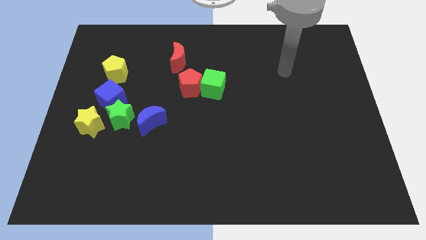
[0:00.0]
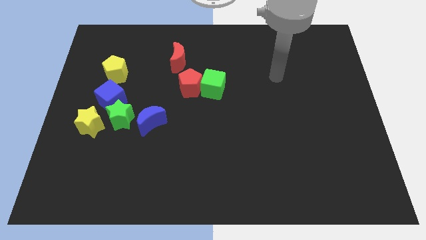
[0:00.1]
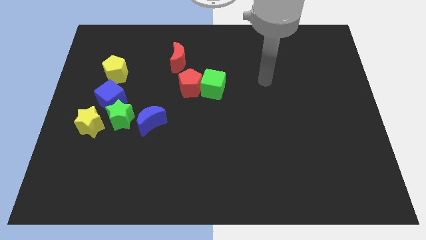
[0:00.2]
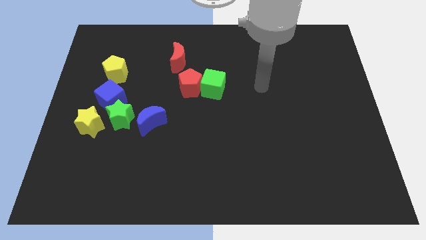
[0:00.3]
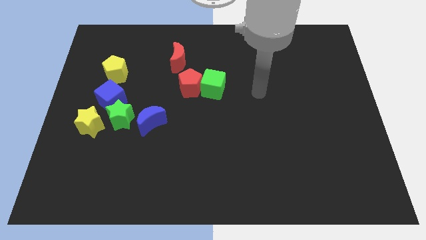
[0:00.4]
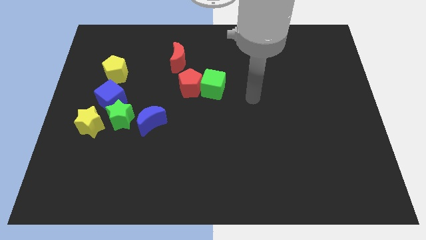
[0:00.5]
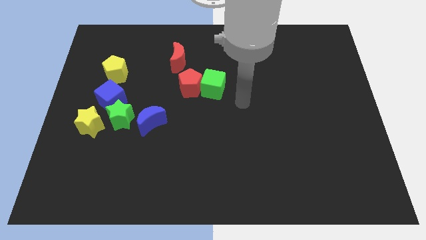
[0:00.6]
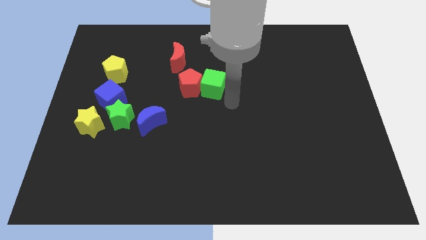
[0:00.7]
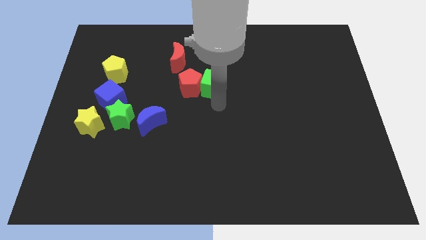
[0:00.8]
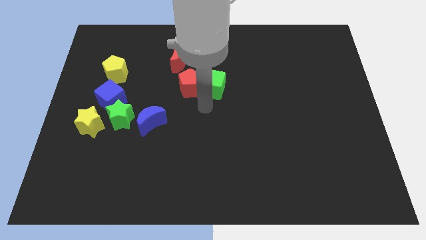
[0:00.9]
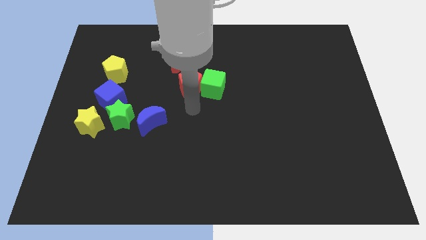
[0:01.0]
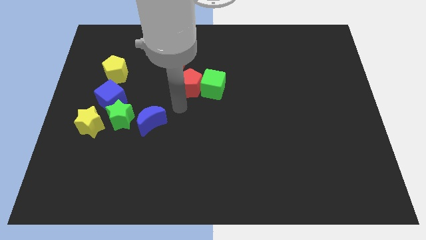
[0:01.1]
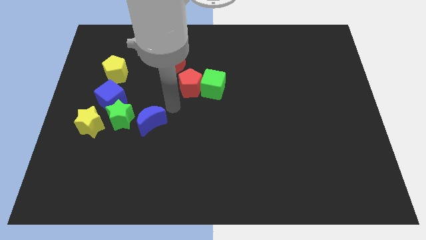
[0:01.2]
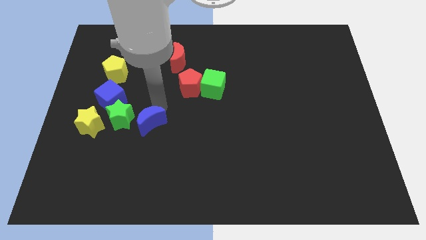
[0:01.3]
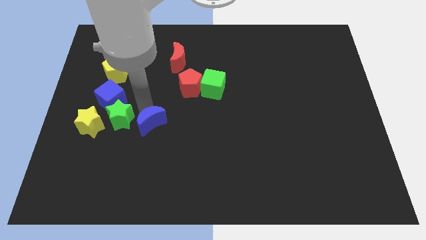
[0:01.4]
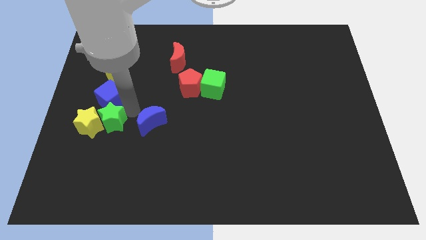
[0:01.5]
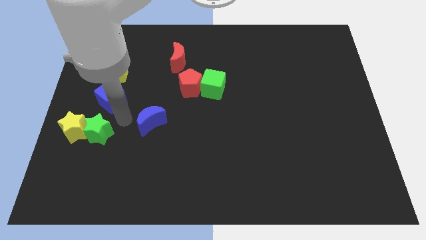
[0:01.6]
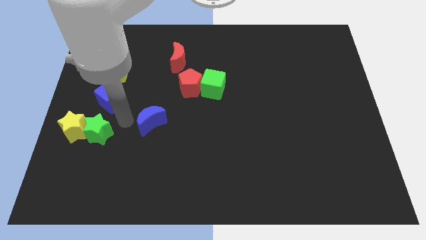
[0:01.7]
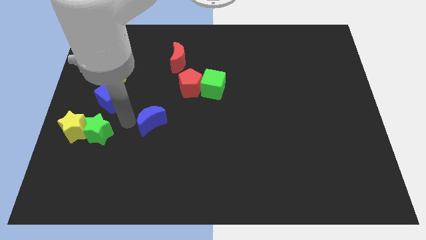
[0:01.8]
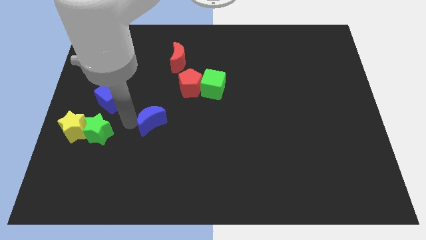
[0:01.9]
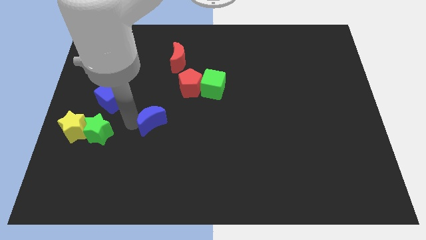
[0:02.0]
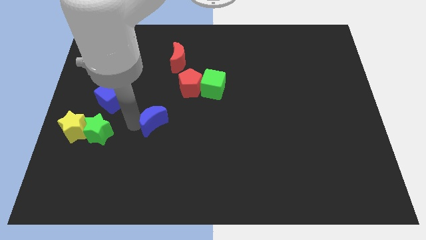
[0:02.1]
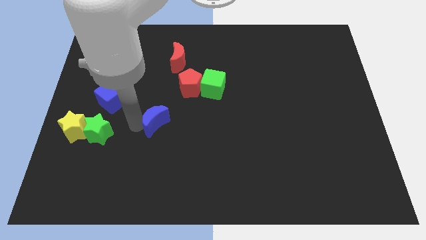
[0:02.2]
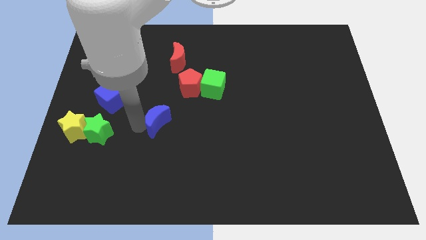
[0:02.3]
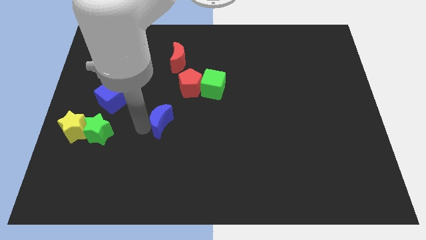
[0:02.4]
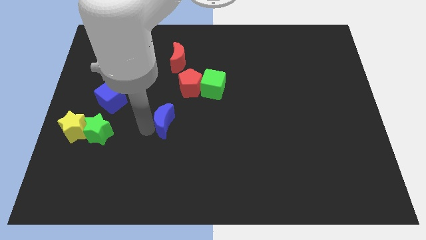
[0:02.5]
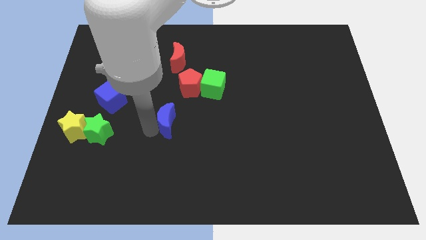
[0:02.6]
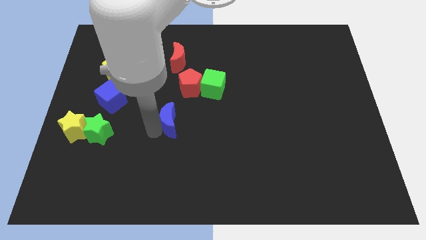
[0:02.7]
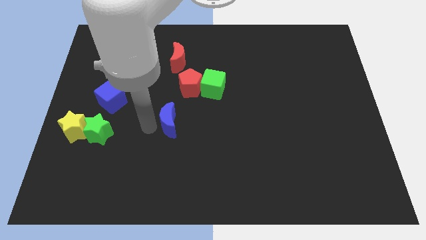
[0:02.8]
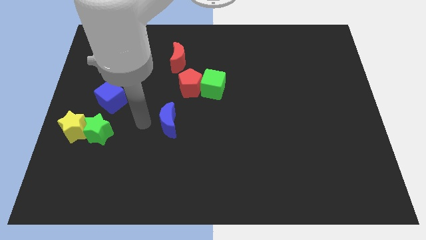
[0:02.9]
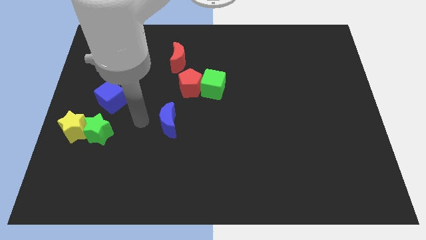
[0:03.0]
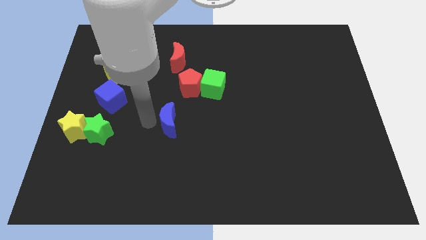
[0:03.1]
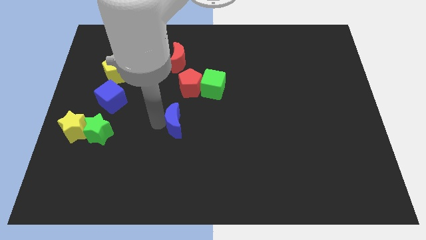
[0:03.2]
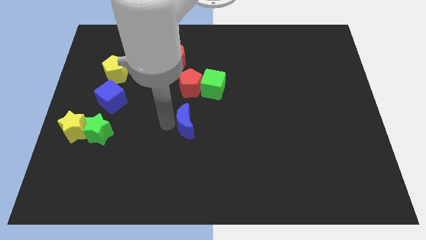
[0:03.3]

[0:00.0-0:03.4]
slightly slide the blue moon right

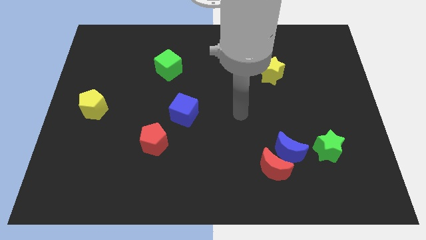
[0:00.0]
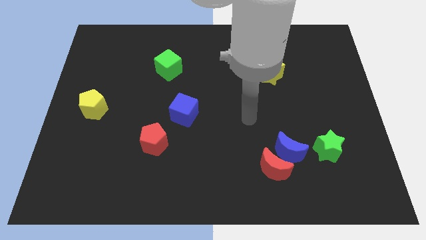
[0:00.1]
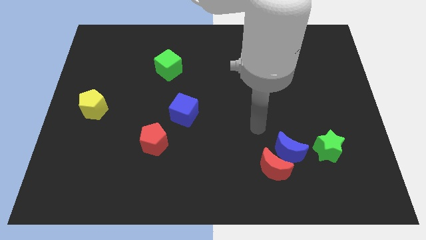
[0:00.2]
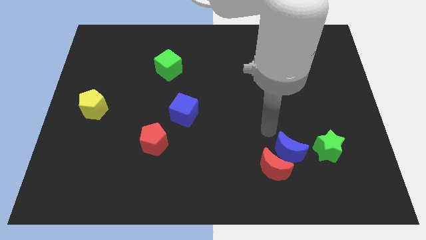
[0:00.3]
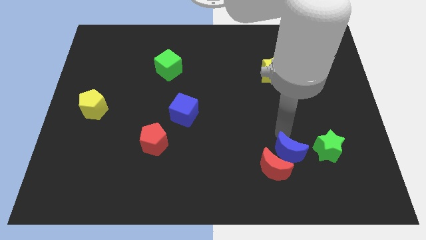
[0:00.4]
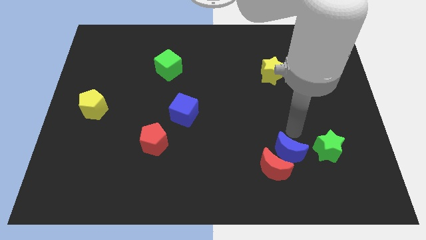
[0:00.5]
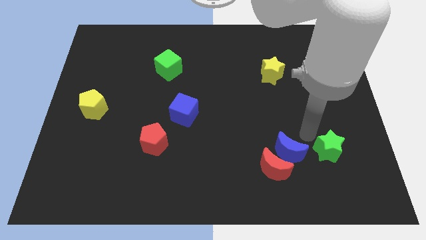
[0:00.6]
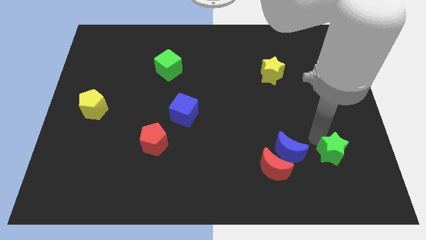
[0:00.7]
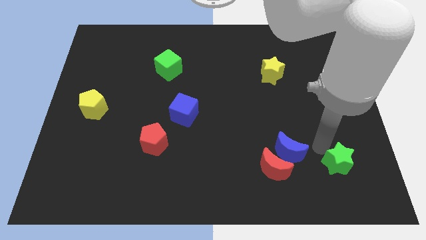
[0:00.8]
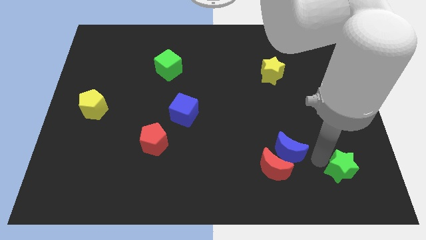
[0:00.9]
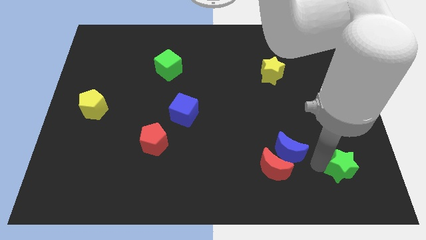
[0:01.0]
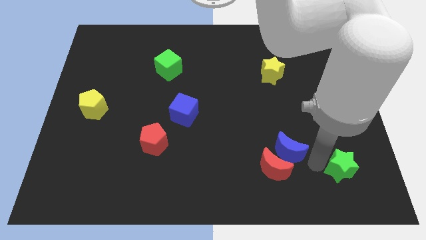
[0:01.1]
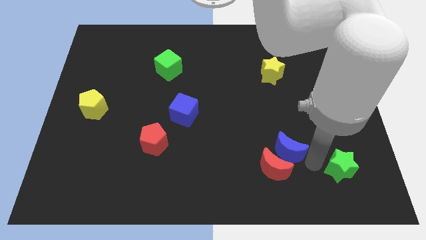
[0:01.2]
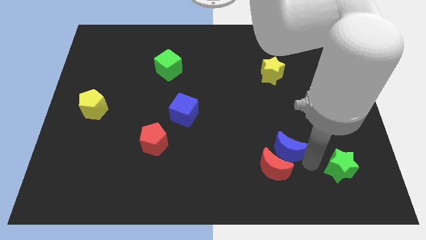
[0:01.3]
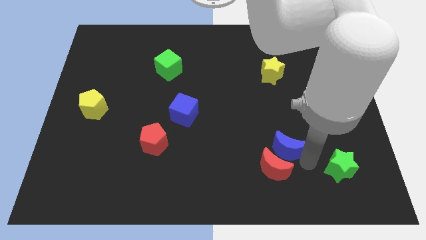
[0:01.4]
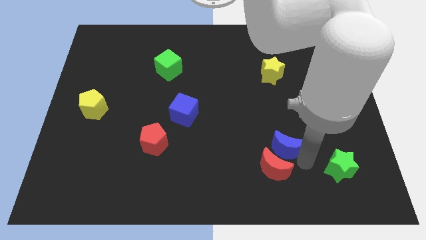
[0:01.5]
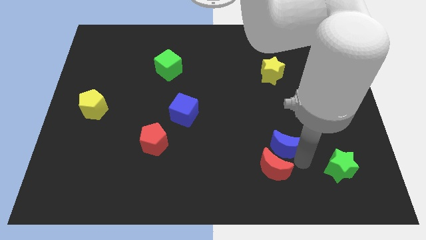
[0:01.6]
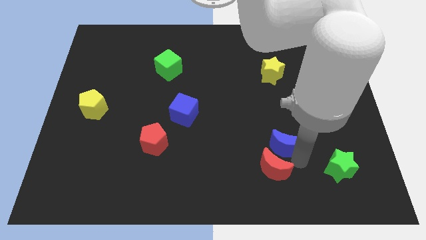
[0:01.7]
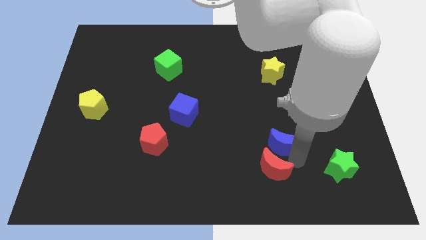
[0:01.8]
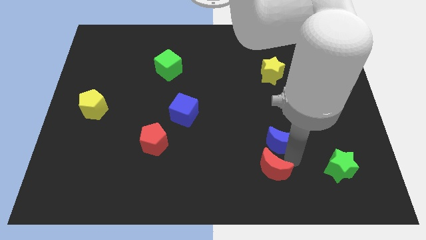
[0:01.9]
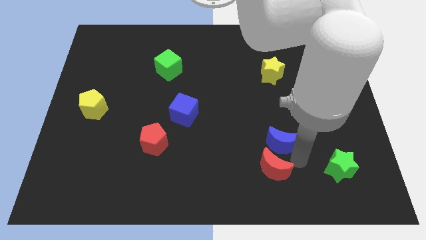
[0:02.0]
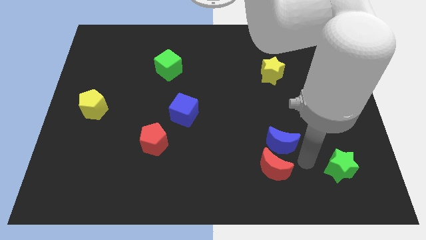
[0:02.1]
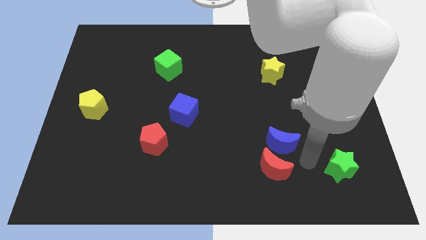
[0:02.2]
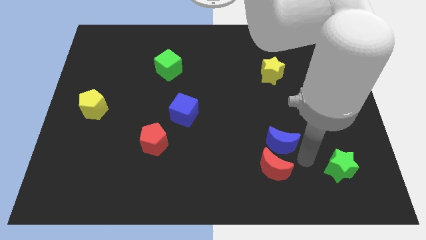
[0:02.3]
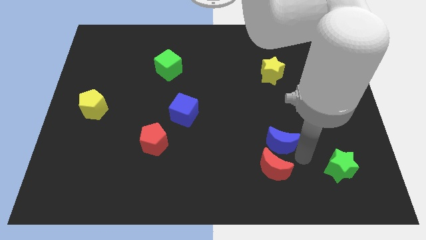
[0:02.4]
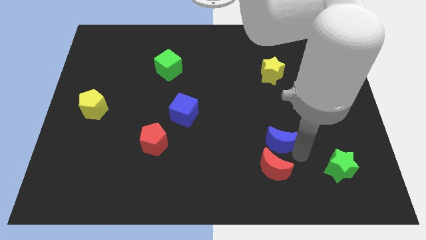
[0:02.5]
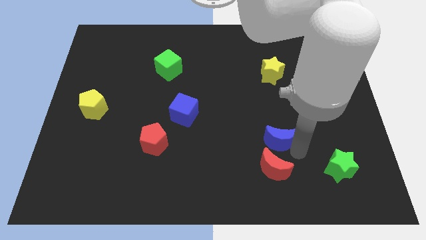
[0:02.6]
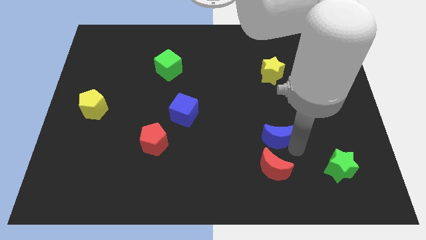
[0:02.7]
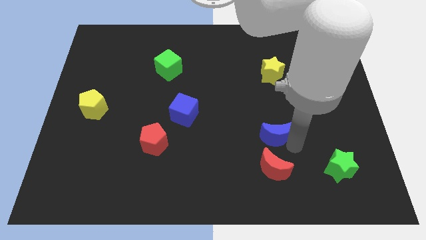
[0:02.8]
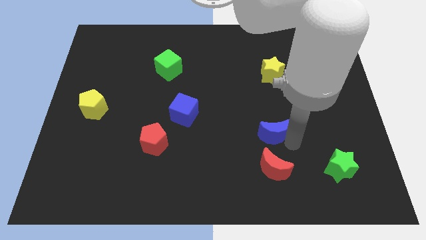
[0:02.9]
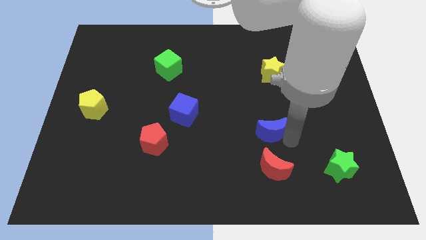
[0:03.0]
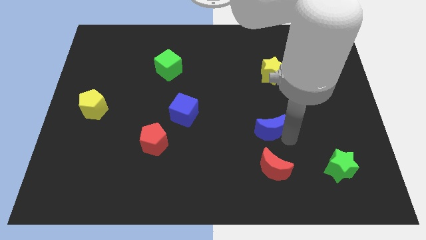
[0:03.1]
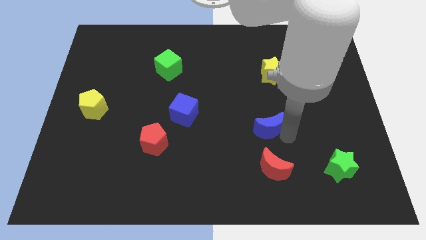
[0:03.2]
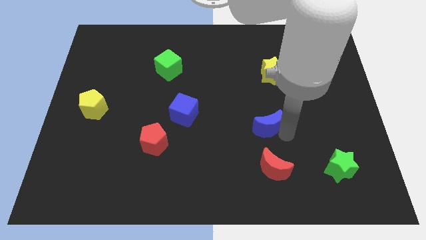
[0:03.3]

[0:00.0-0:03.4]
push the blue moon a bit up and to the left diagonally

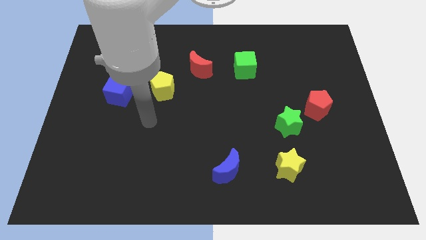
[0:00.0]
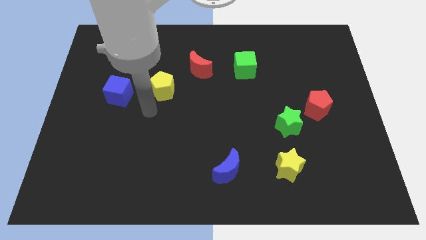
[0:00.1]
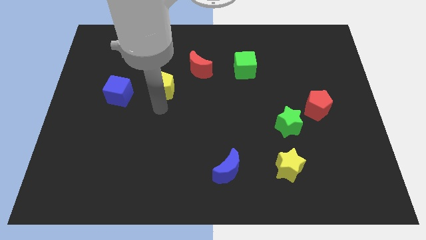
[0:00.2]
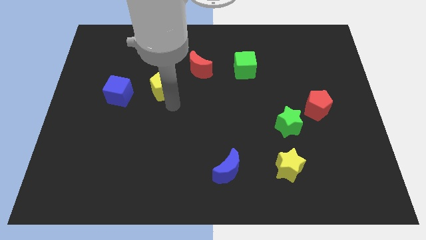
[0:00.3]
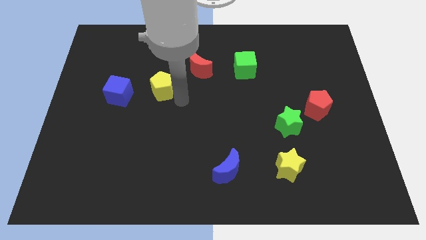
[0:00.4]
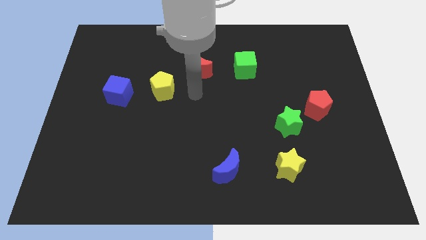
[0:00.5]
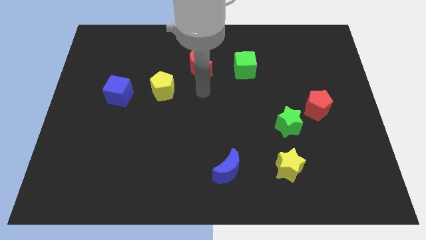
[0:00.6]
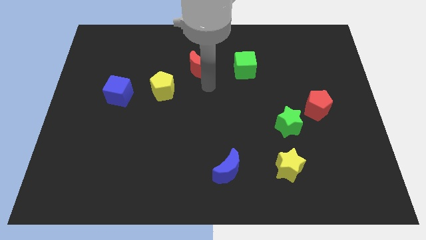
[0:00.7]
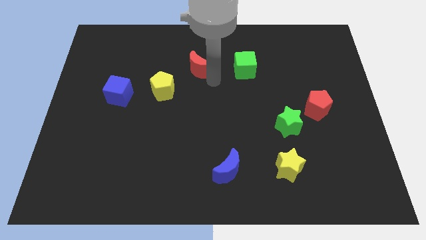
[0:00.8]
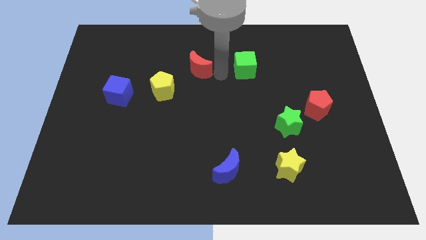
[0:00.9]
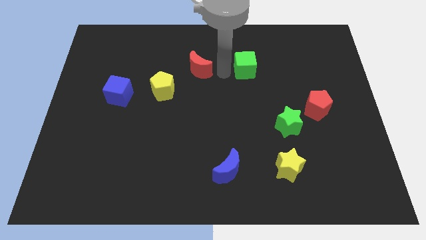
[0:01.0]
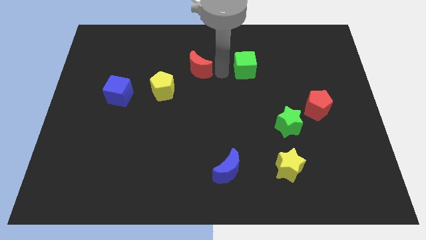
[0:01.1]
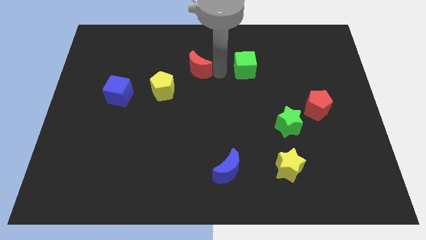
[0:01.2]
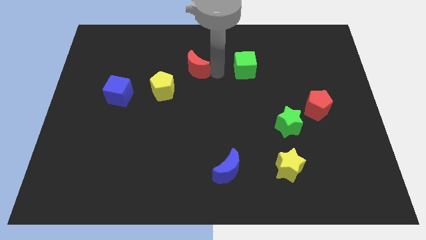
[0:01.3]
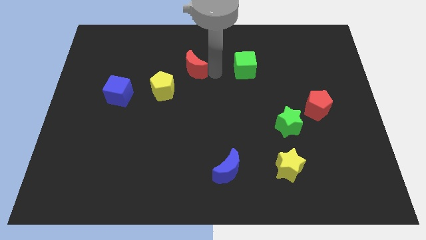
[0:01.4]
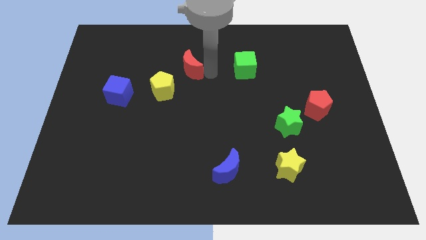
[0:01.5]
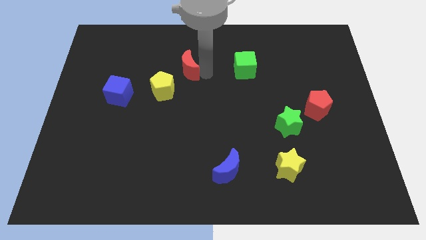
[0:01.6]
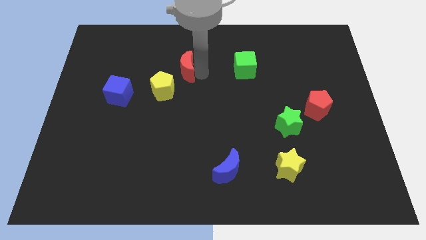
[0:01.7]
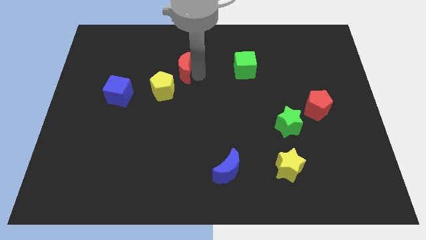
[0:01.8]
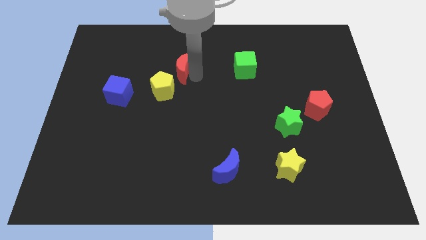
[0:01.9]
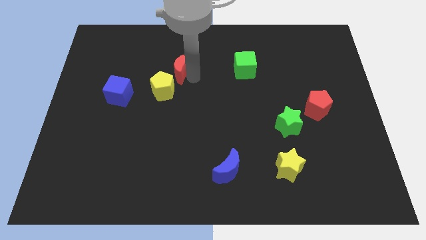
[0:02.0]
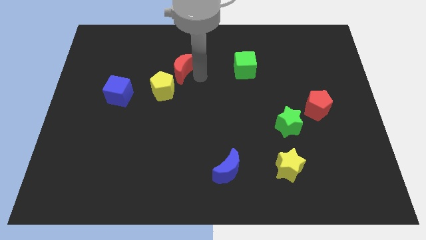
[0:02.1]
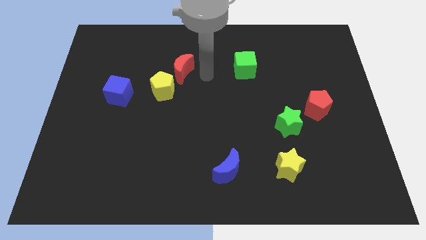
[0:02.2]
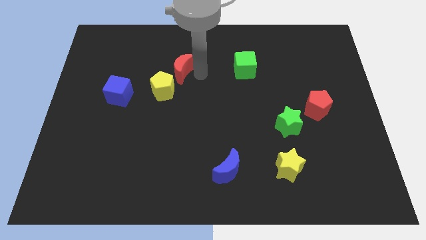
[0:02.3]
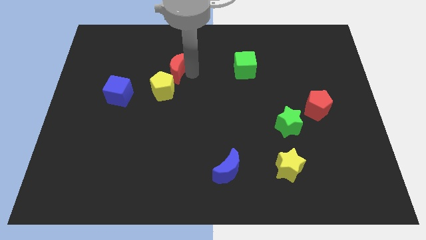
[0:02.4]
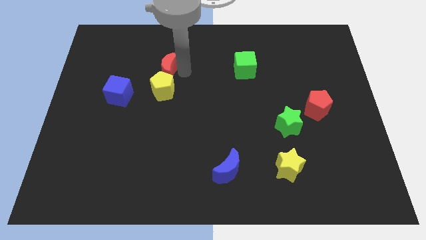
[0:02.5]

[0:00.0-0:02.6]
slightly slide the red moon left
